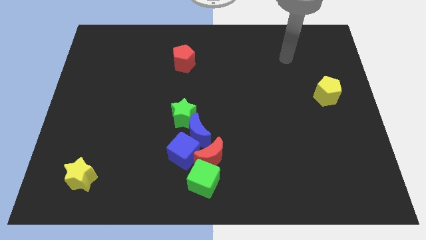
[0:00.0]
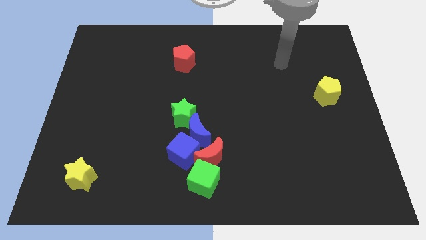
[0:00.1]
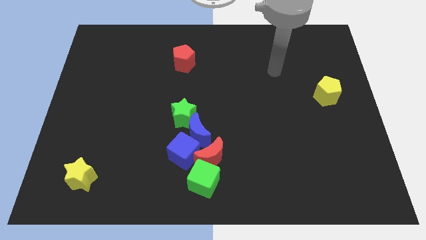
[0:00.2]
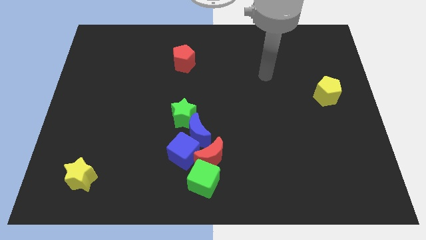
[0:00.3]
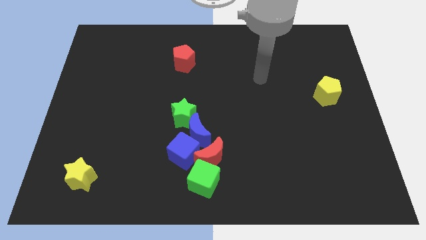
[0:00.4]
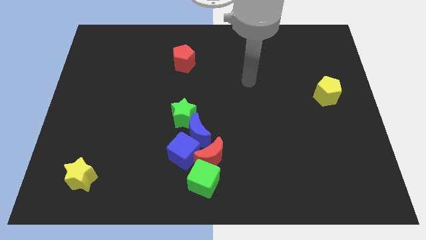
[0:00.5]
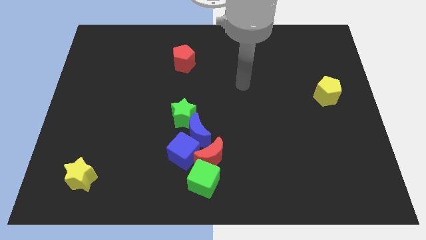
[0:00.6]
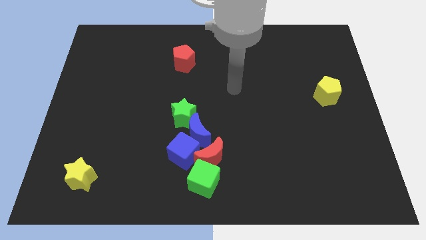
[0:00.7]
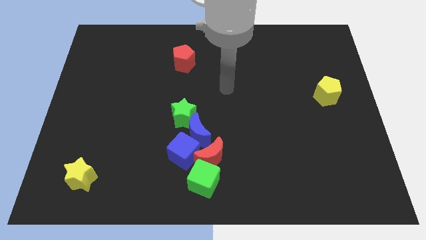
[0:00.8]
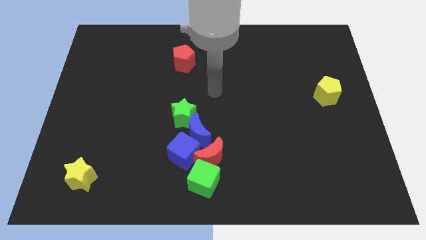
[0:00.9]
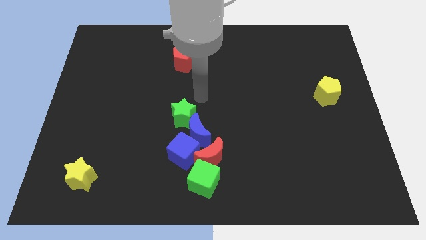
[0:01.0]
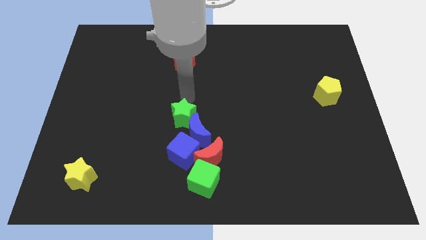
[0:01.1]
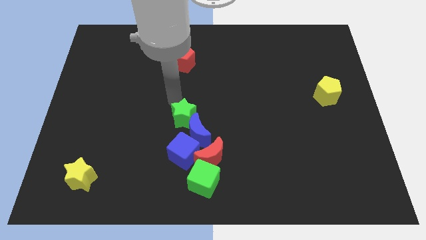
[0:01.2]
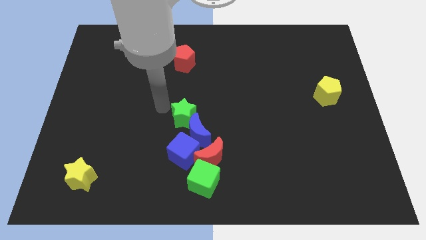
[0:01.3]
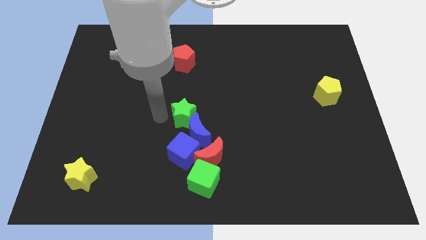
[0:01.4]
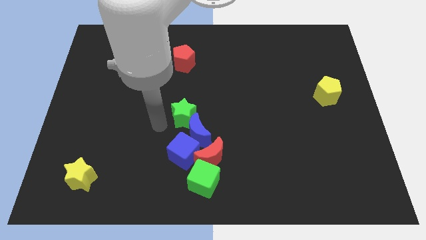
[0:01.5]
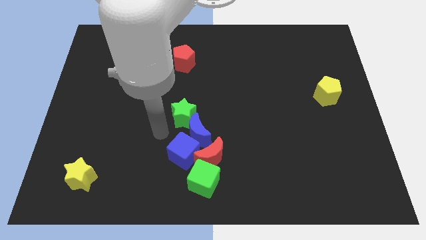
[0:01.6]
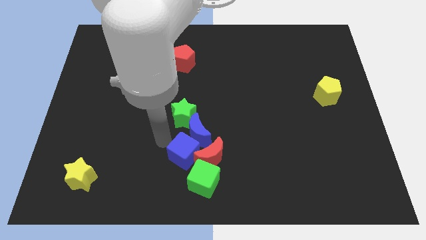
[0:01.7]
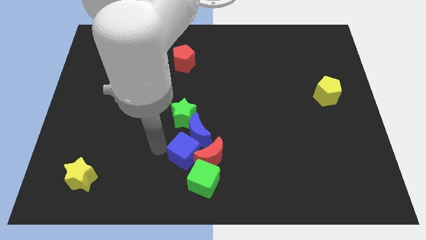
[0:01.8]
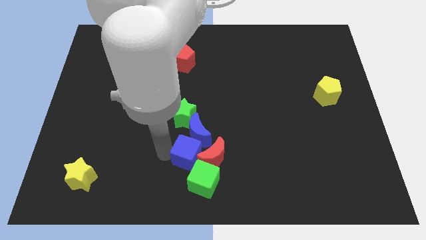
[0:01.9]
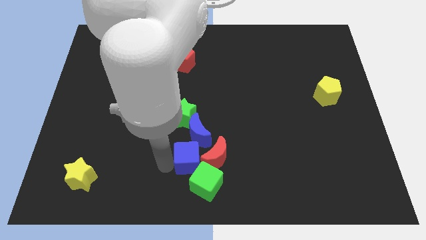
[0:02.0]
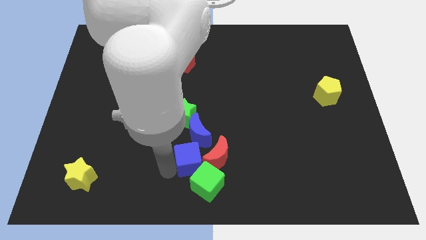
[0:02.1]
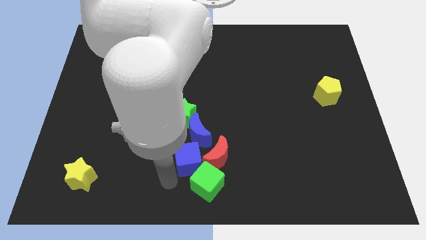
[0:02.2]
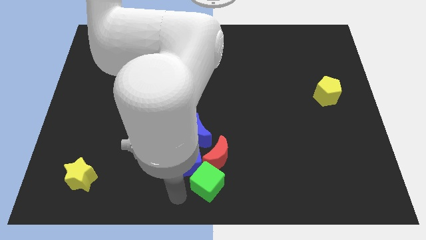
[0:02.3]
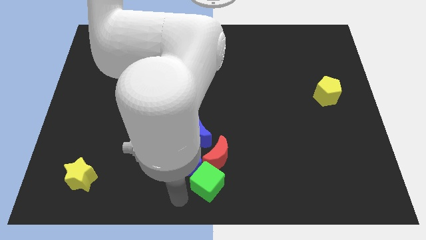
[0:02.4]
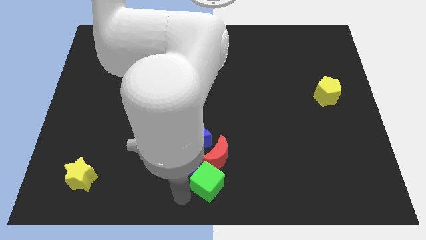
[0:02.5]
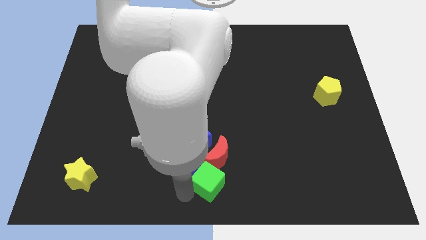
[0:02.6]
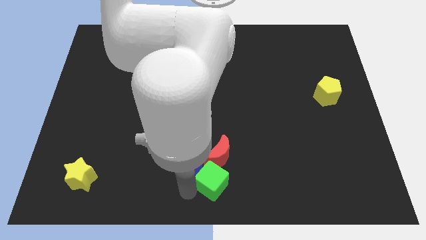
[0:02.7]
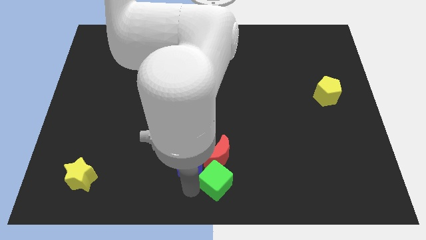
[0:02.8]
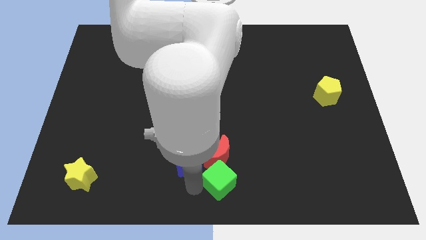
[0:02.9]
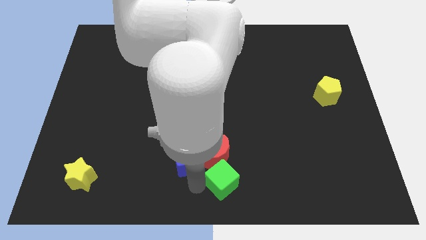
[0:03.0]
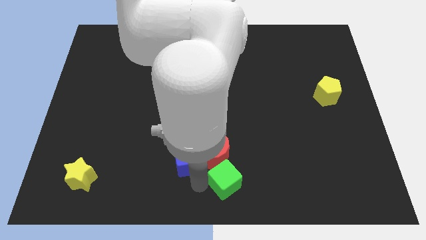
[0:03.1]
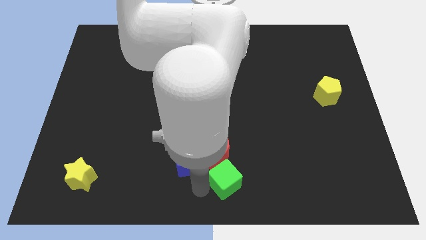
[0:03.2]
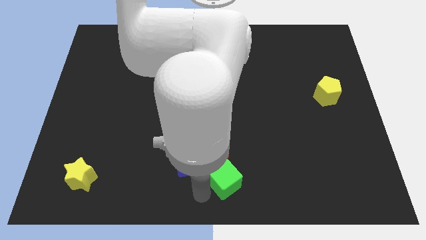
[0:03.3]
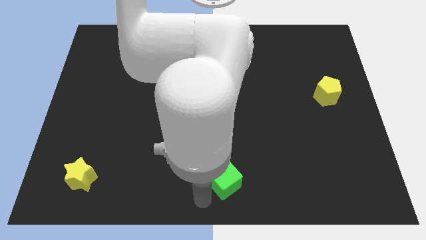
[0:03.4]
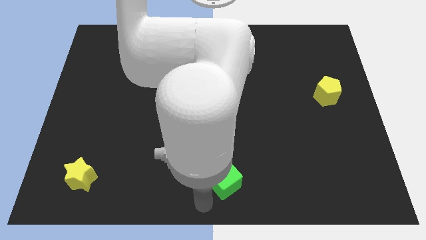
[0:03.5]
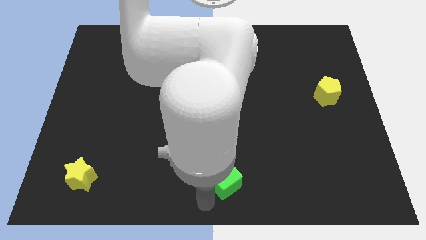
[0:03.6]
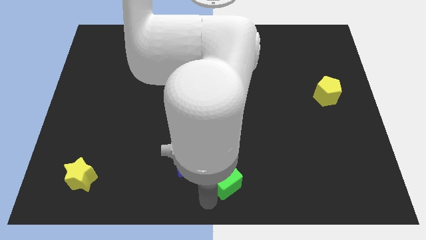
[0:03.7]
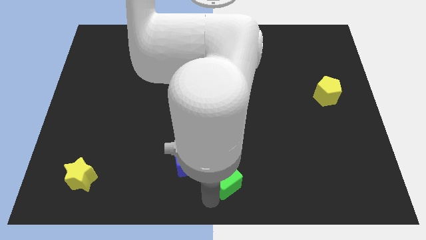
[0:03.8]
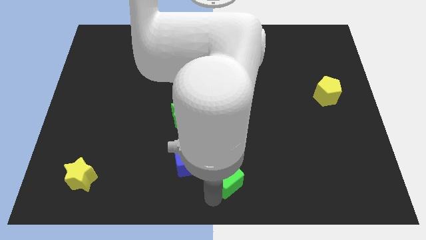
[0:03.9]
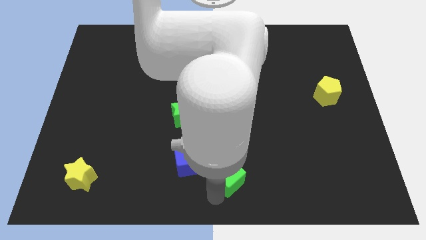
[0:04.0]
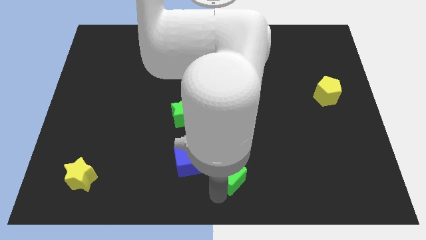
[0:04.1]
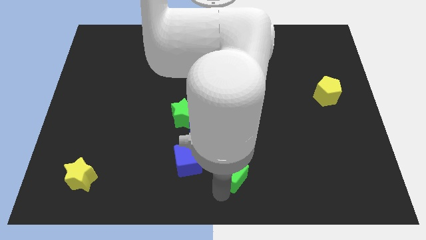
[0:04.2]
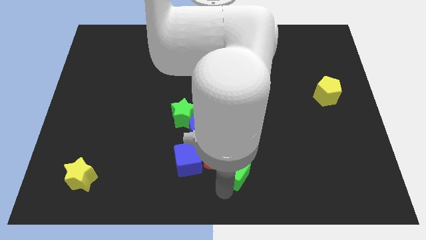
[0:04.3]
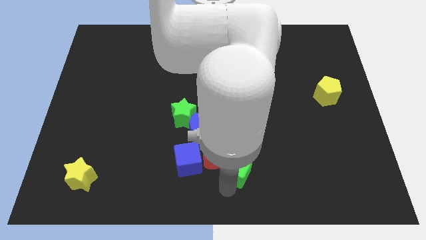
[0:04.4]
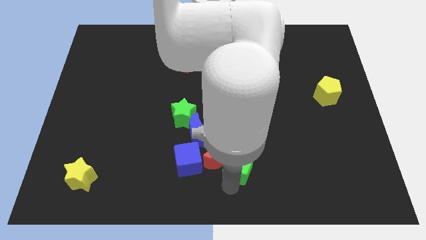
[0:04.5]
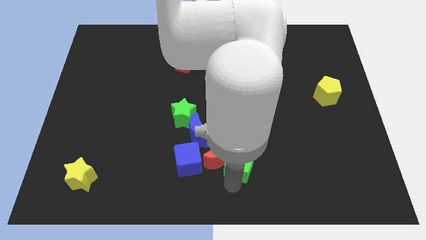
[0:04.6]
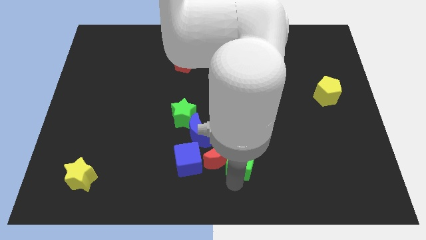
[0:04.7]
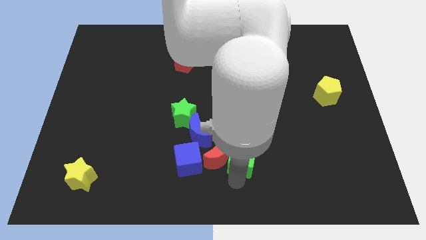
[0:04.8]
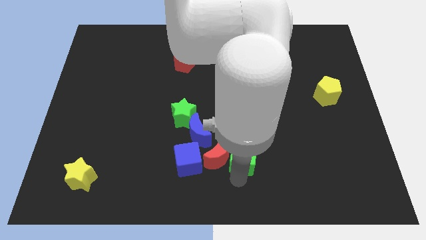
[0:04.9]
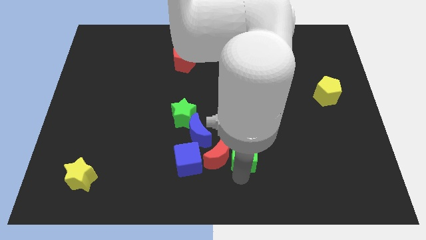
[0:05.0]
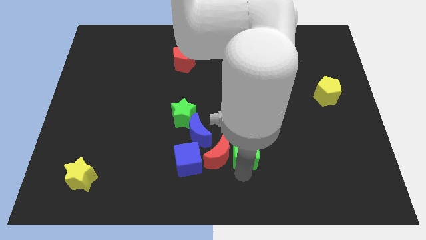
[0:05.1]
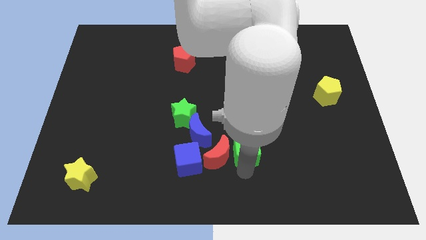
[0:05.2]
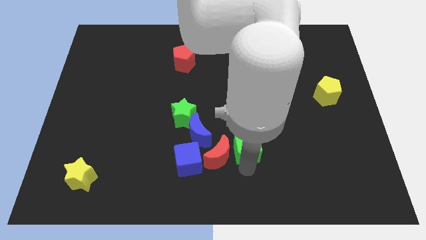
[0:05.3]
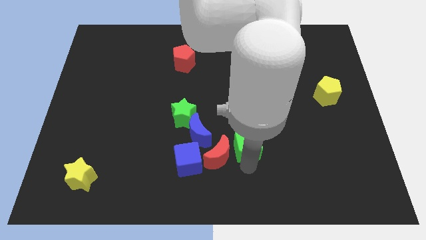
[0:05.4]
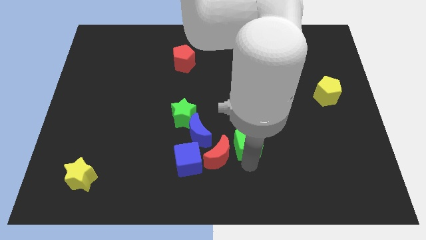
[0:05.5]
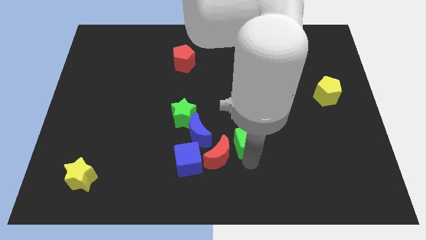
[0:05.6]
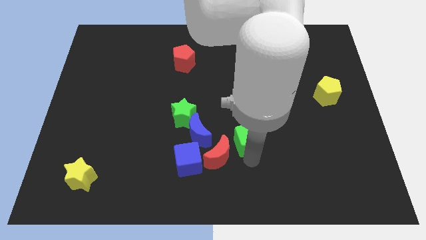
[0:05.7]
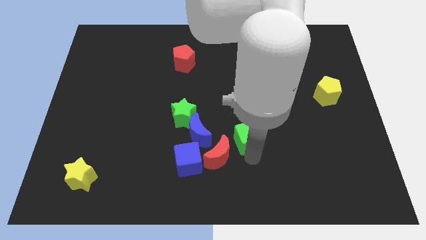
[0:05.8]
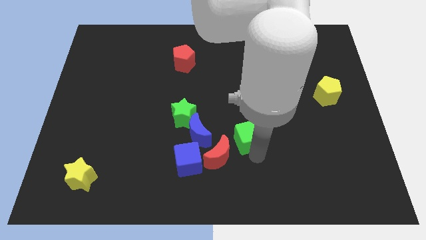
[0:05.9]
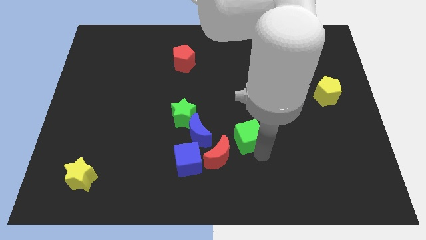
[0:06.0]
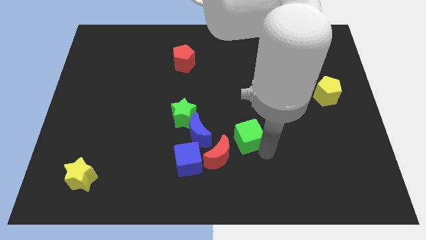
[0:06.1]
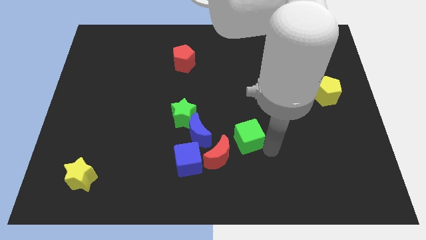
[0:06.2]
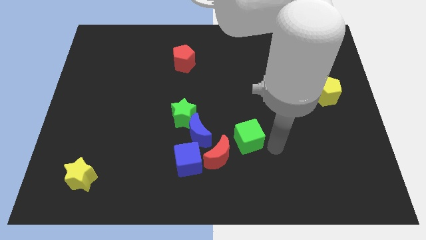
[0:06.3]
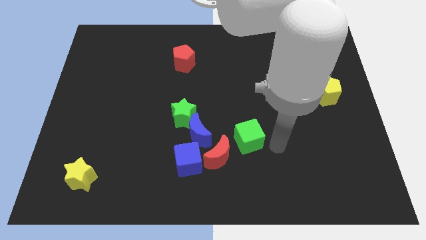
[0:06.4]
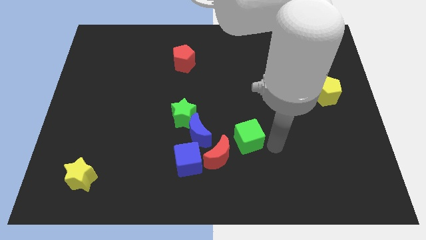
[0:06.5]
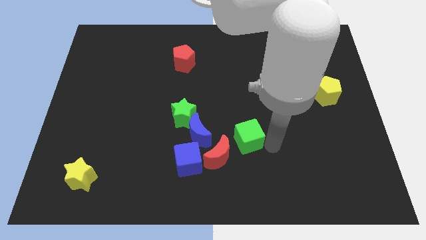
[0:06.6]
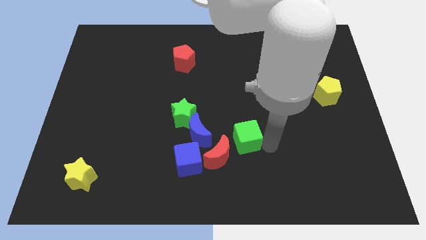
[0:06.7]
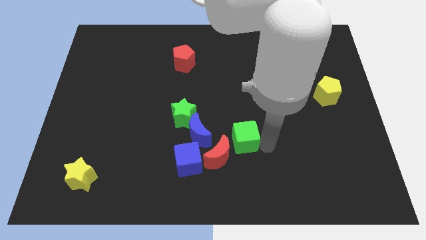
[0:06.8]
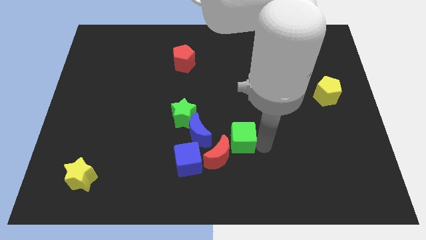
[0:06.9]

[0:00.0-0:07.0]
slightly slide the green cube upwards

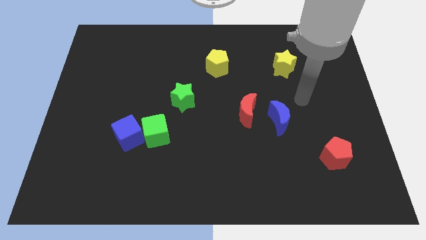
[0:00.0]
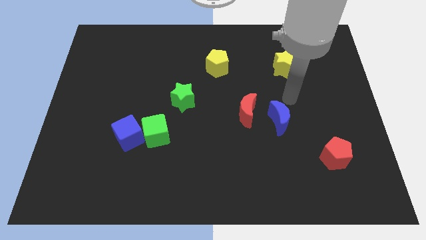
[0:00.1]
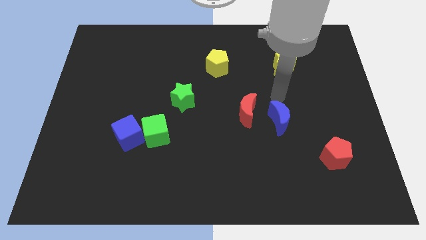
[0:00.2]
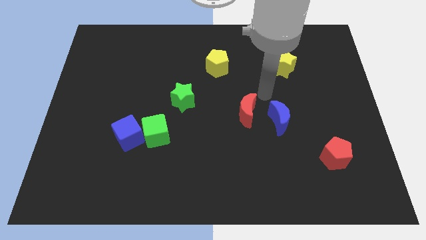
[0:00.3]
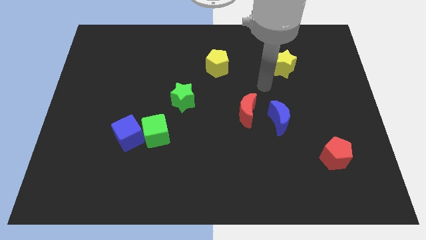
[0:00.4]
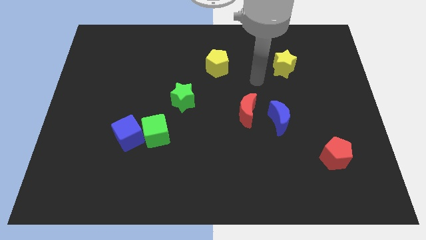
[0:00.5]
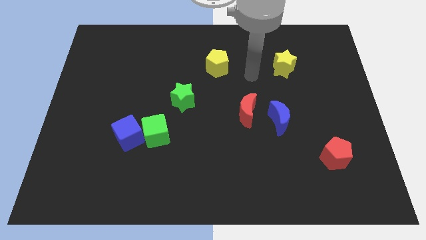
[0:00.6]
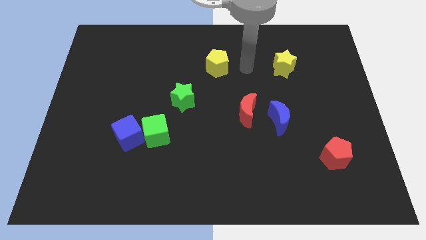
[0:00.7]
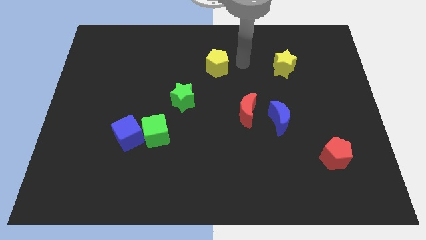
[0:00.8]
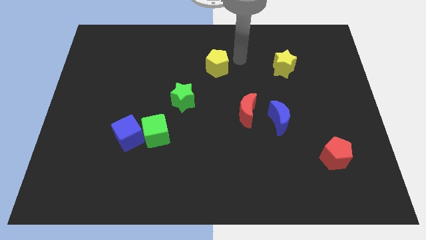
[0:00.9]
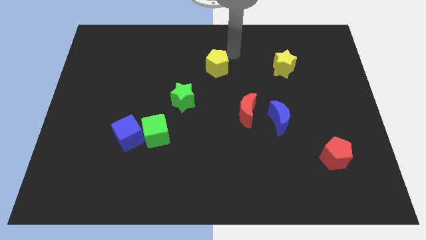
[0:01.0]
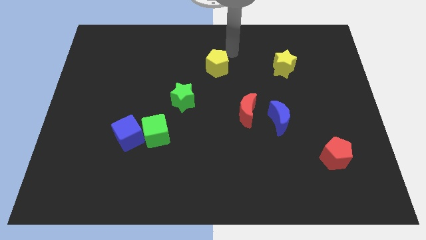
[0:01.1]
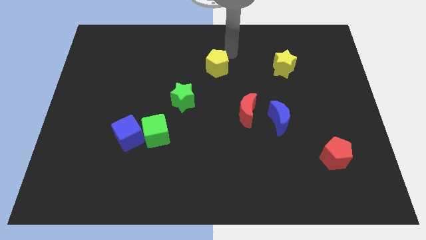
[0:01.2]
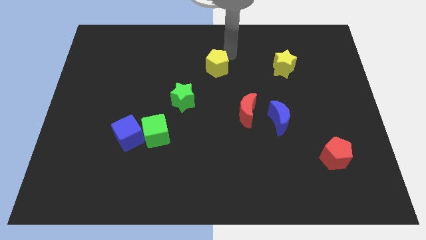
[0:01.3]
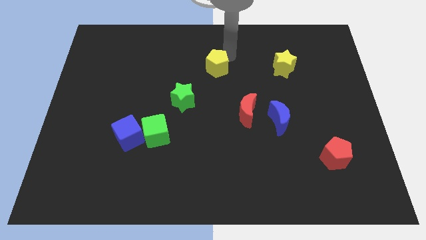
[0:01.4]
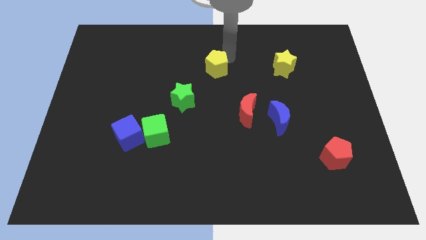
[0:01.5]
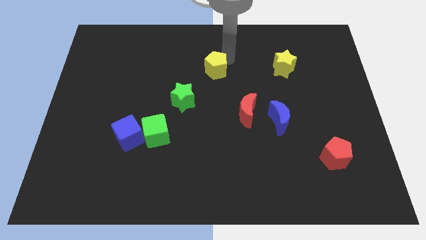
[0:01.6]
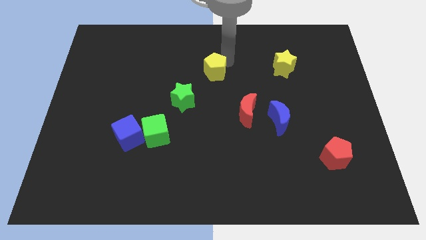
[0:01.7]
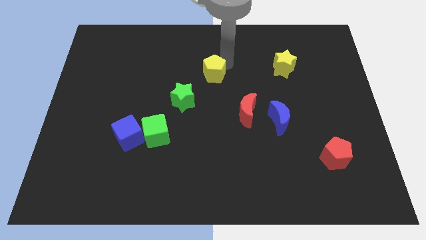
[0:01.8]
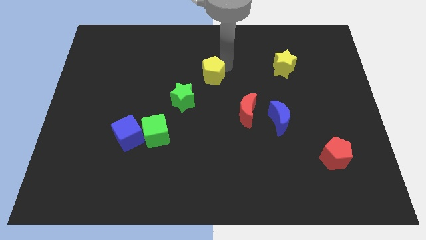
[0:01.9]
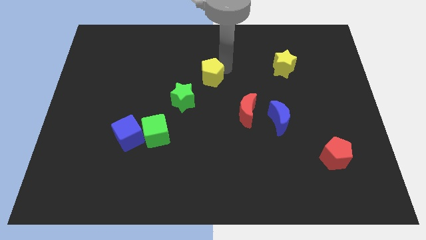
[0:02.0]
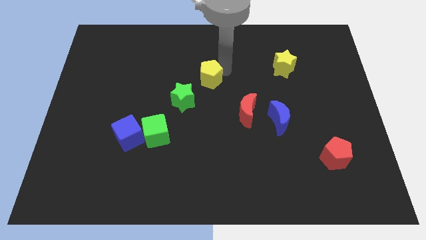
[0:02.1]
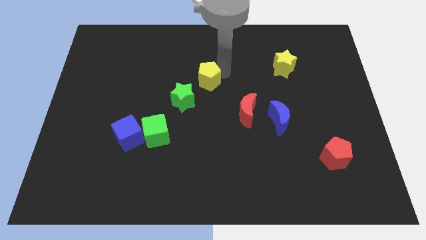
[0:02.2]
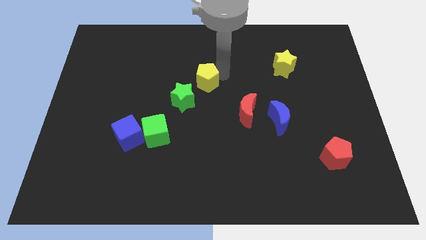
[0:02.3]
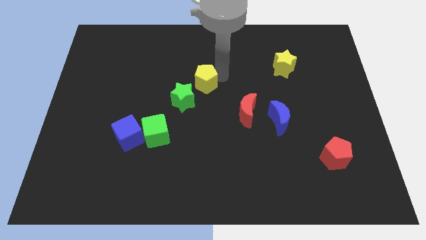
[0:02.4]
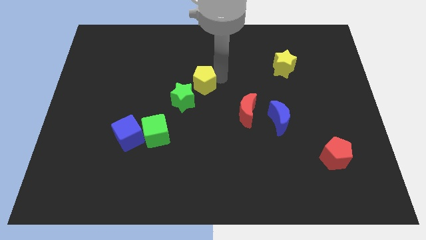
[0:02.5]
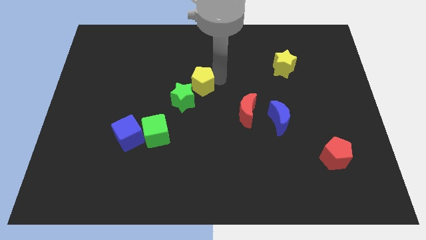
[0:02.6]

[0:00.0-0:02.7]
move the yellow pentagon a little downwards and then to the left
